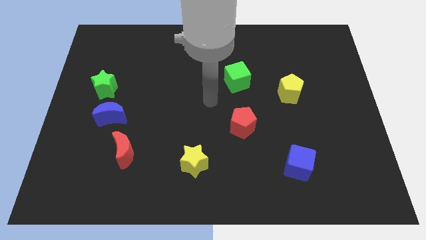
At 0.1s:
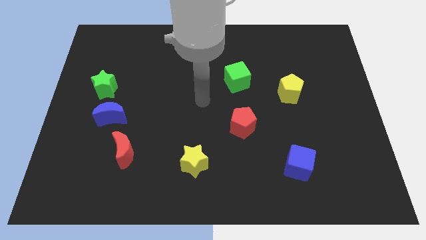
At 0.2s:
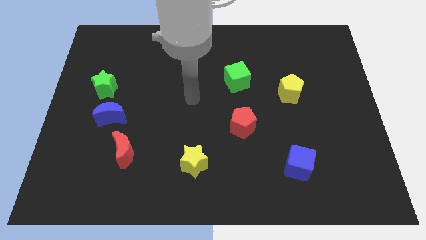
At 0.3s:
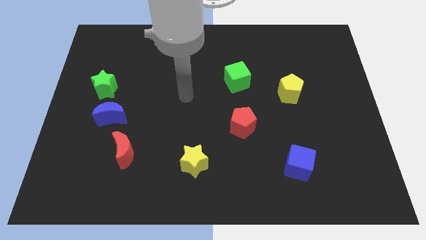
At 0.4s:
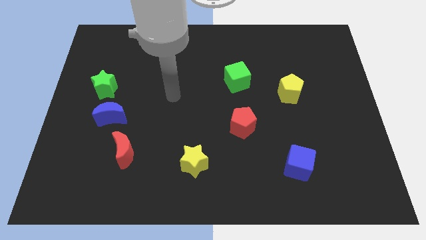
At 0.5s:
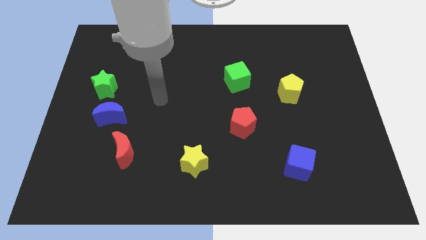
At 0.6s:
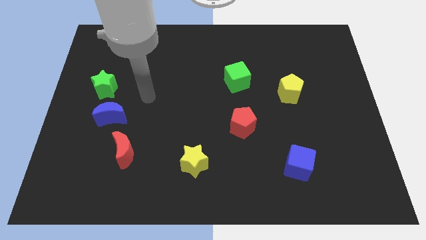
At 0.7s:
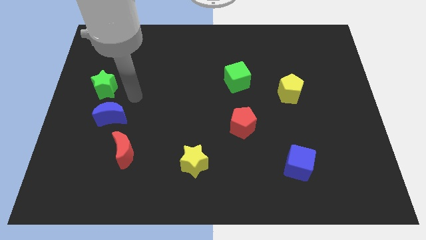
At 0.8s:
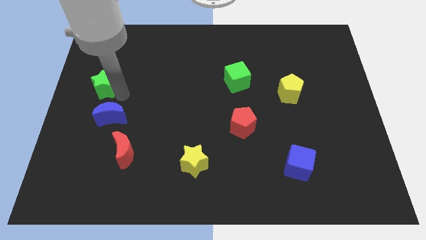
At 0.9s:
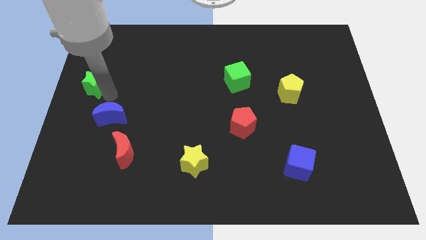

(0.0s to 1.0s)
move the blue moon away from the green star

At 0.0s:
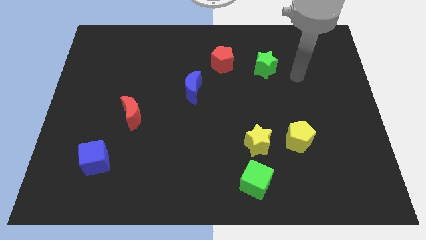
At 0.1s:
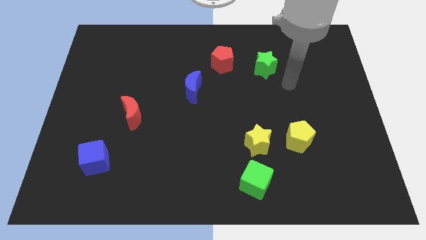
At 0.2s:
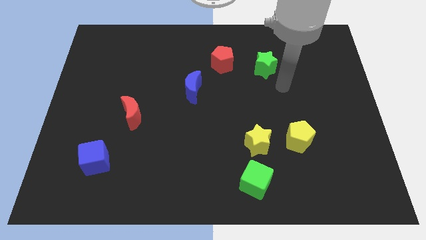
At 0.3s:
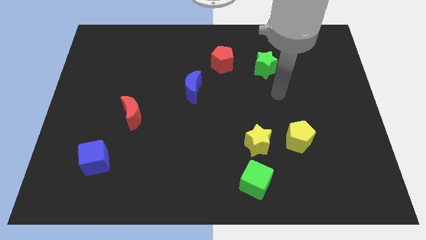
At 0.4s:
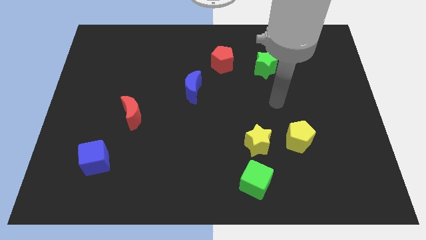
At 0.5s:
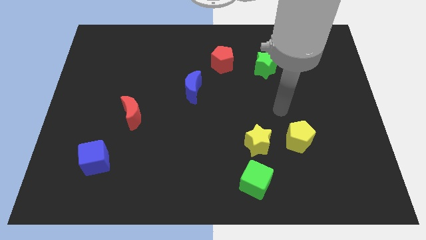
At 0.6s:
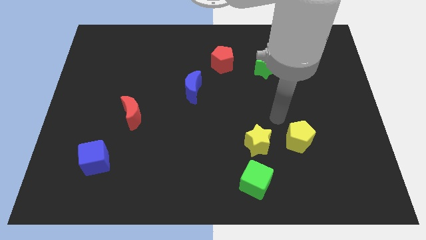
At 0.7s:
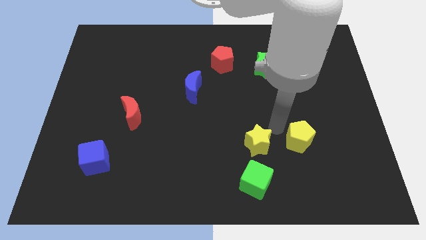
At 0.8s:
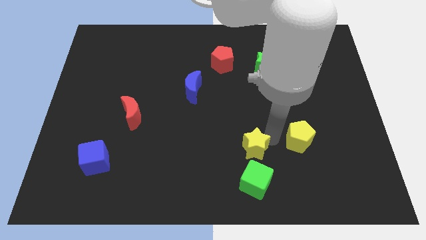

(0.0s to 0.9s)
pull the yellow pentagon apart from the yellow star

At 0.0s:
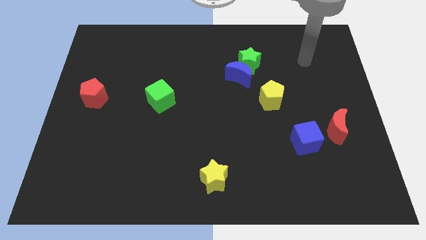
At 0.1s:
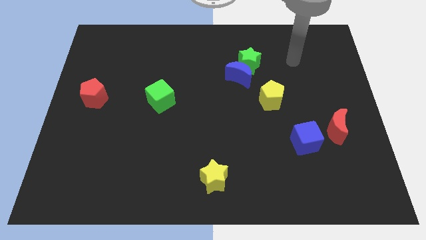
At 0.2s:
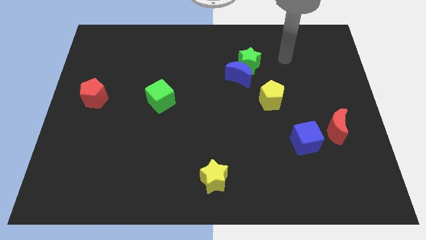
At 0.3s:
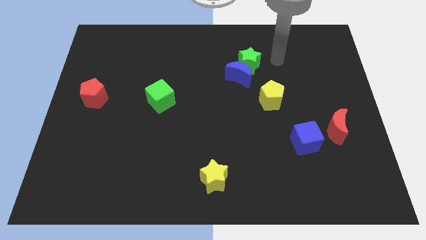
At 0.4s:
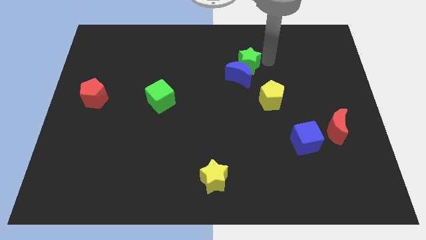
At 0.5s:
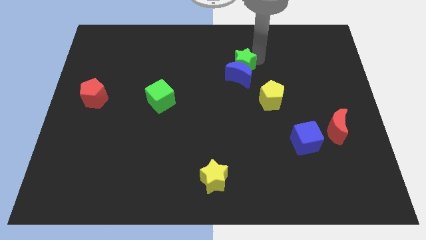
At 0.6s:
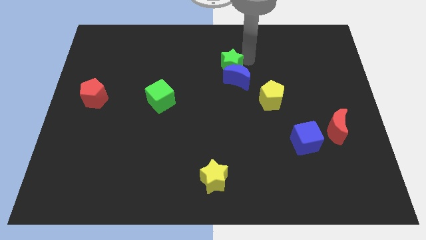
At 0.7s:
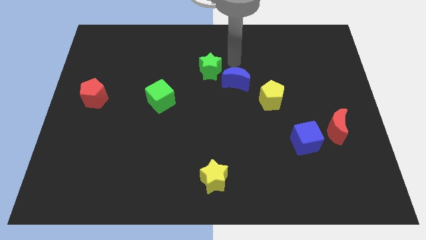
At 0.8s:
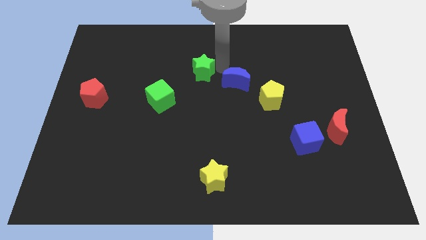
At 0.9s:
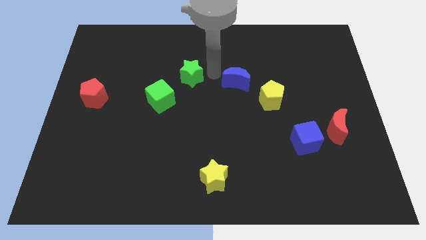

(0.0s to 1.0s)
pull the blue moon apart from the green star

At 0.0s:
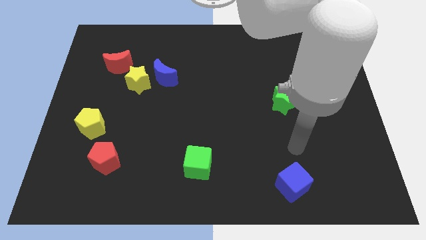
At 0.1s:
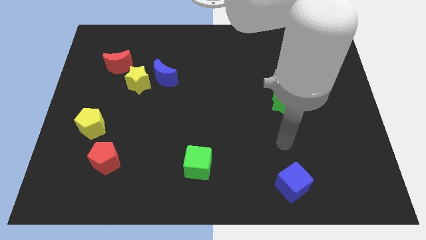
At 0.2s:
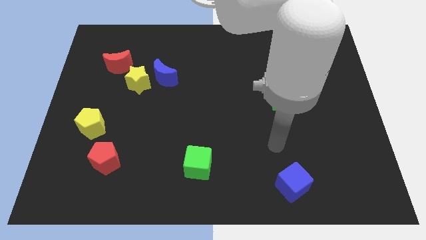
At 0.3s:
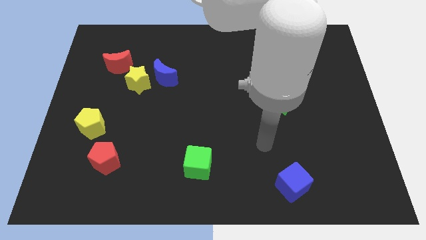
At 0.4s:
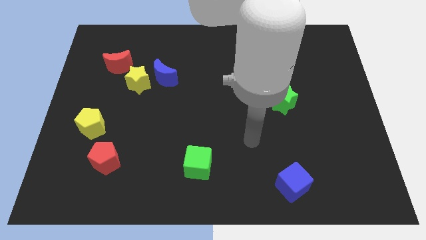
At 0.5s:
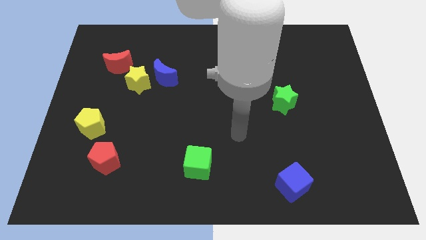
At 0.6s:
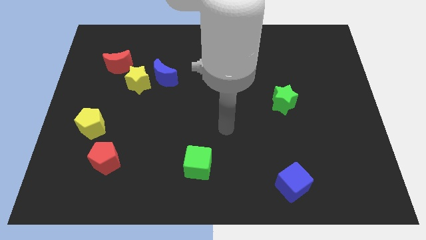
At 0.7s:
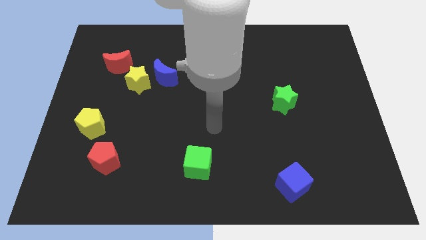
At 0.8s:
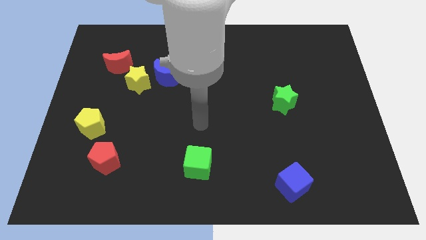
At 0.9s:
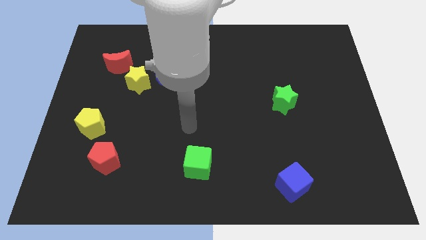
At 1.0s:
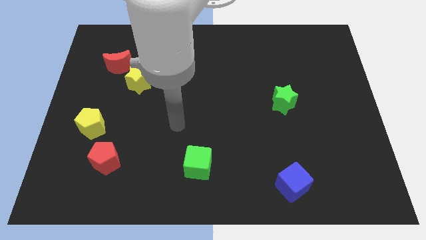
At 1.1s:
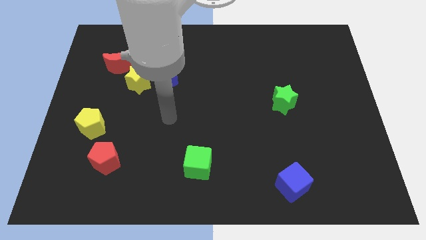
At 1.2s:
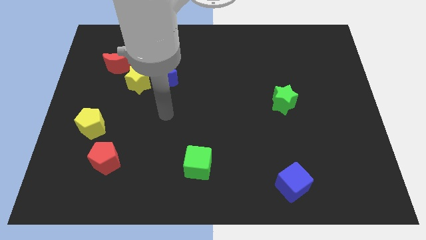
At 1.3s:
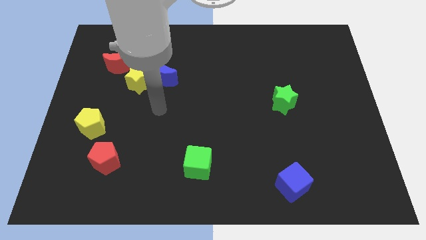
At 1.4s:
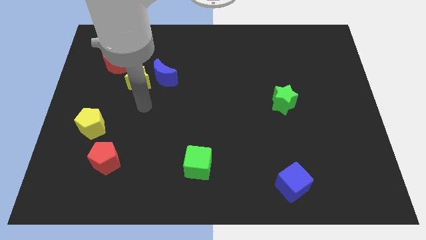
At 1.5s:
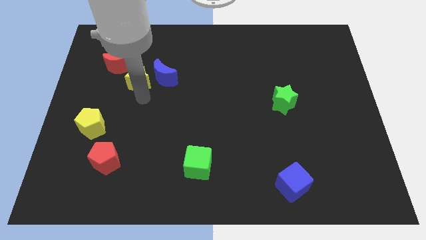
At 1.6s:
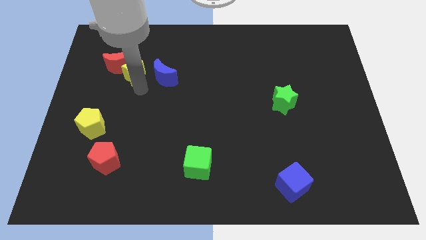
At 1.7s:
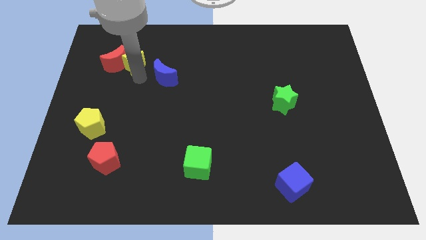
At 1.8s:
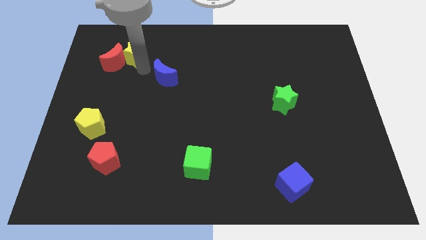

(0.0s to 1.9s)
move the blue moon away from the yellow star

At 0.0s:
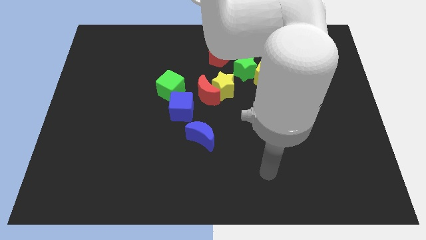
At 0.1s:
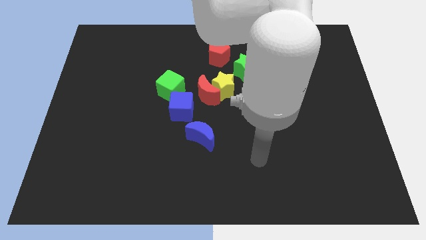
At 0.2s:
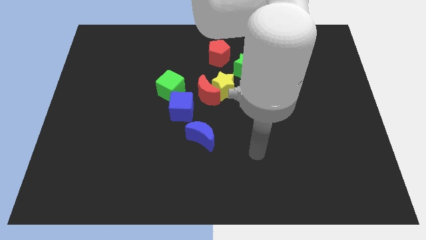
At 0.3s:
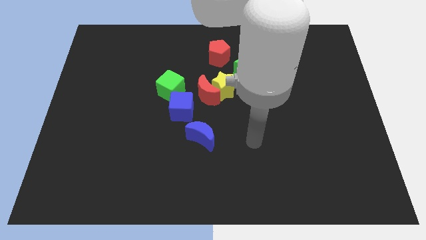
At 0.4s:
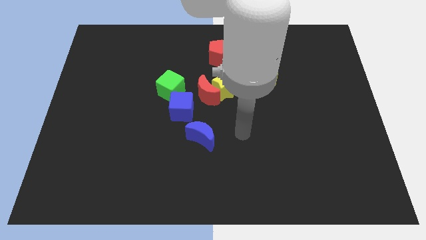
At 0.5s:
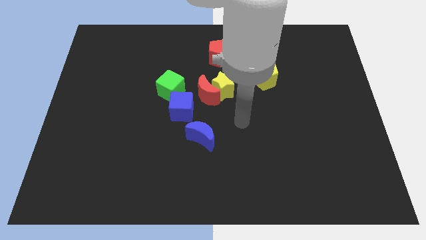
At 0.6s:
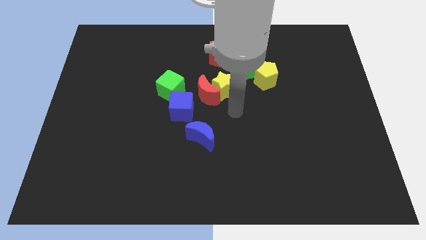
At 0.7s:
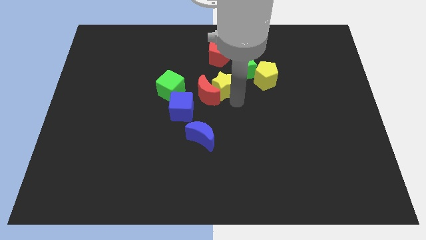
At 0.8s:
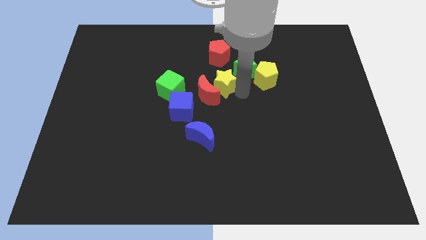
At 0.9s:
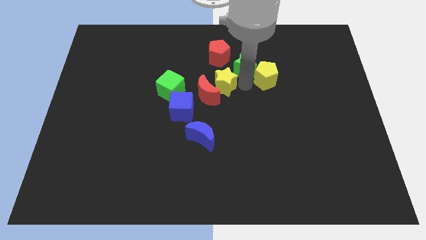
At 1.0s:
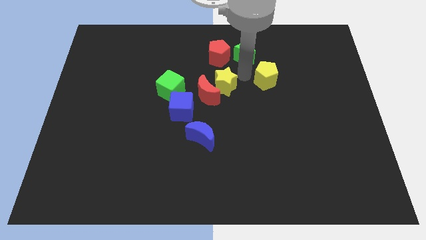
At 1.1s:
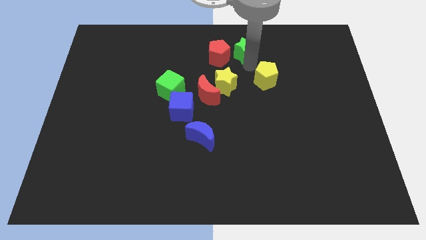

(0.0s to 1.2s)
move the yellow pentagon away from the green star

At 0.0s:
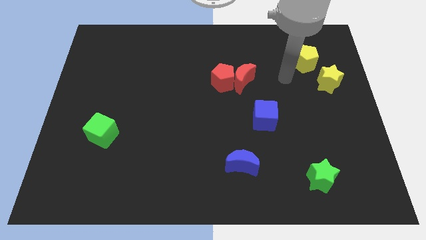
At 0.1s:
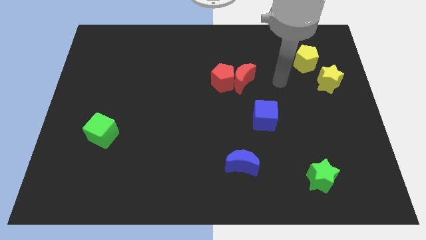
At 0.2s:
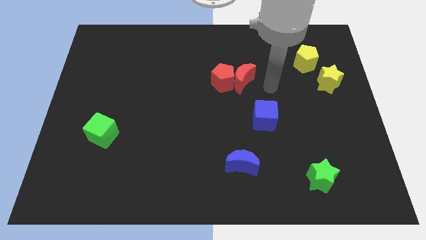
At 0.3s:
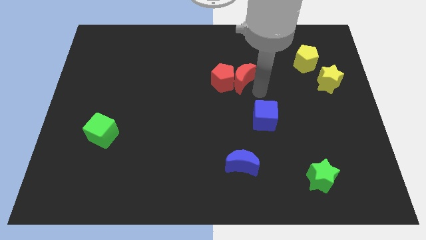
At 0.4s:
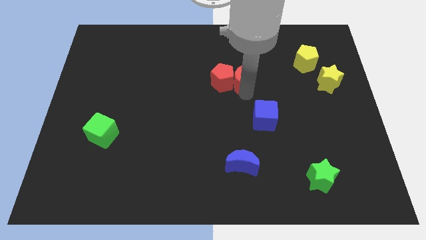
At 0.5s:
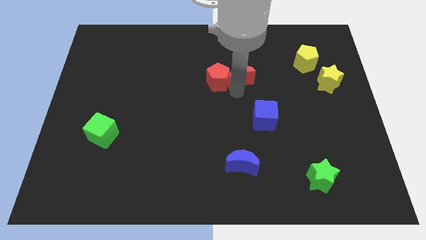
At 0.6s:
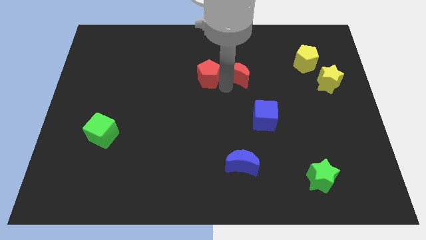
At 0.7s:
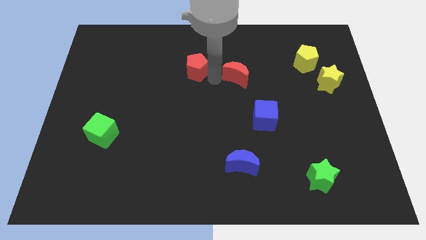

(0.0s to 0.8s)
pull the red moon apart from the red pentagon

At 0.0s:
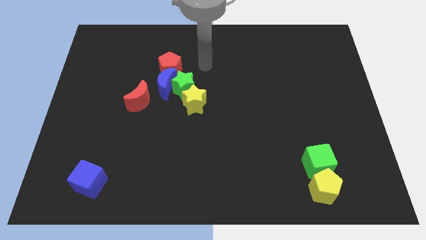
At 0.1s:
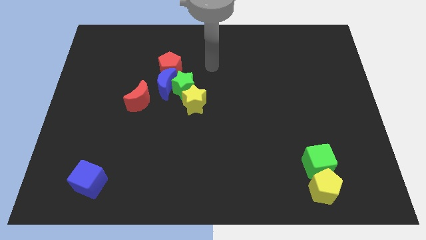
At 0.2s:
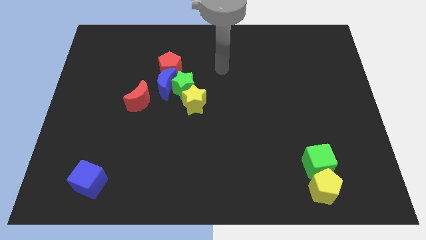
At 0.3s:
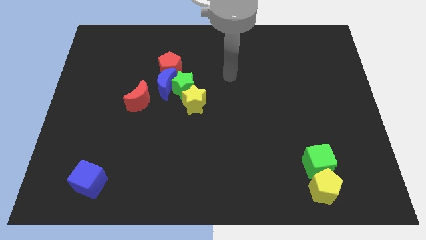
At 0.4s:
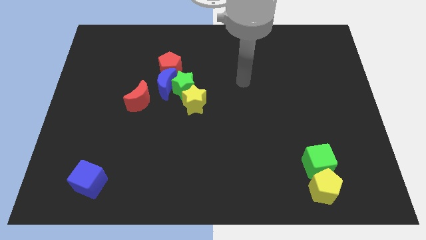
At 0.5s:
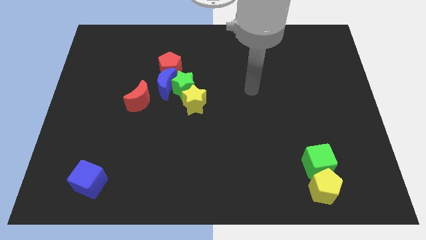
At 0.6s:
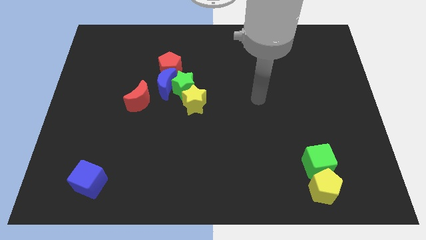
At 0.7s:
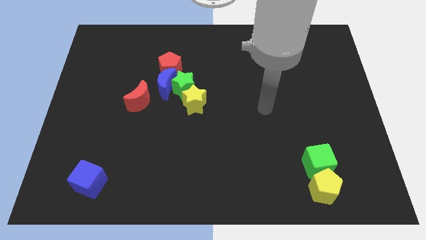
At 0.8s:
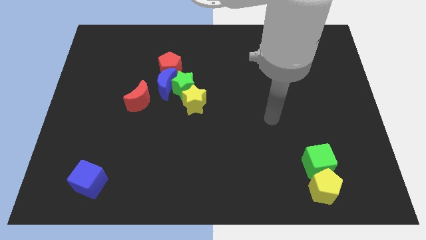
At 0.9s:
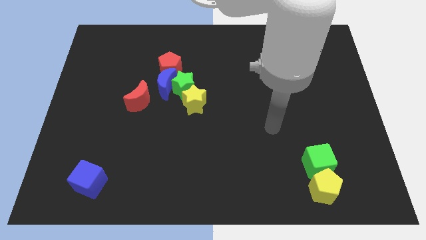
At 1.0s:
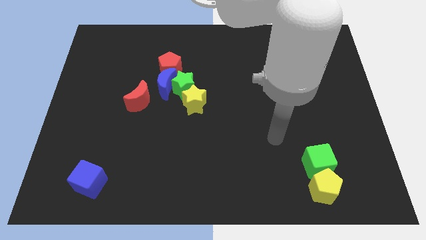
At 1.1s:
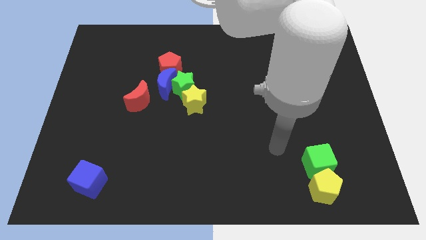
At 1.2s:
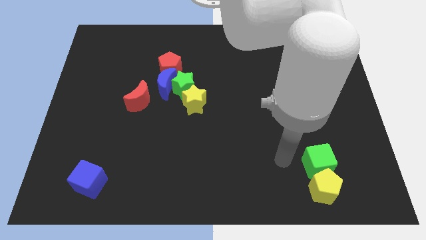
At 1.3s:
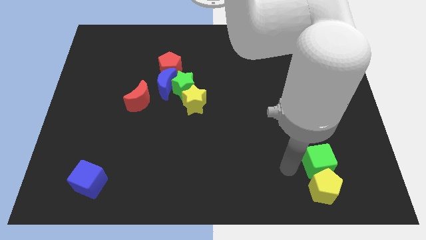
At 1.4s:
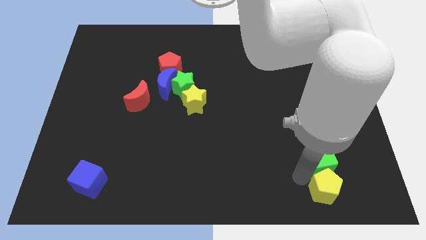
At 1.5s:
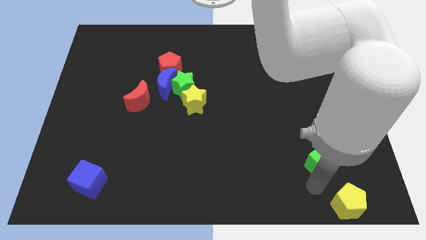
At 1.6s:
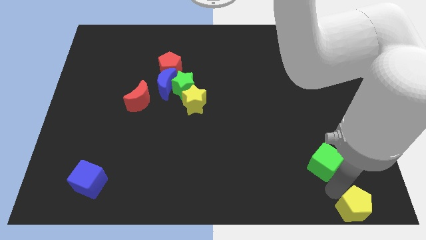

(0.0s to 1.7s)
move the green cube away from the yellow pentagon

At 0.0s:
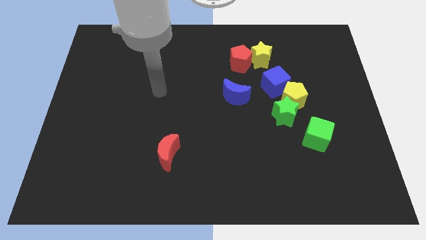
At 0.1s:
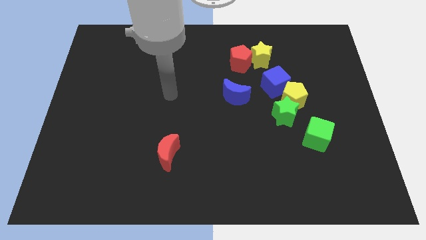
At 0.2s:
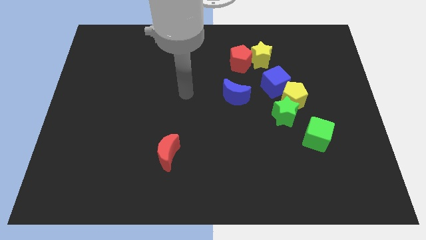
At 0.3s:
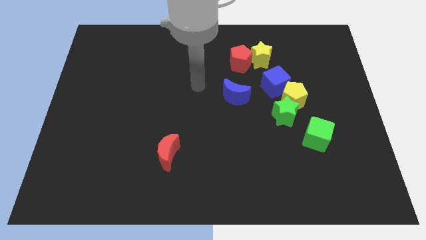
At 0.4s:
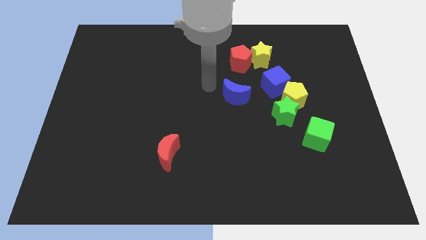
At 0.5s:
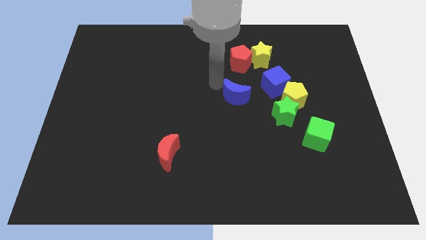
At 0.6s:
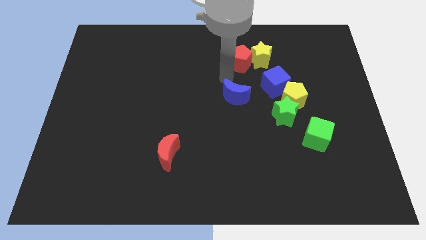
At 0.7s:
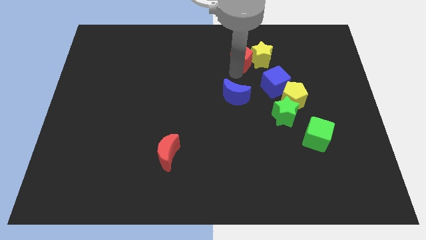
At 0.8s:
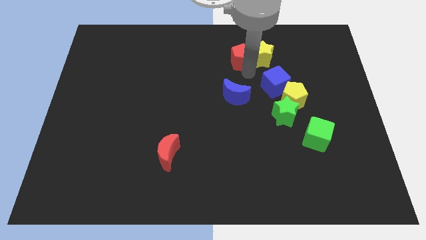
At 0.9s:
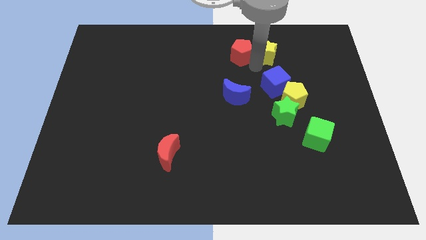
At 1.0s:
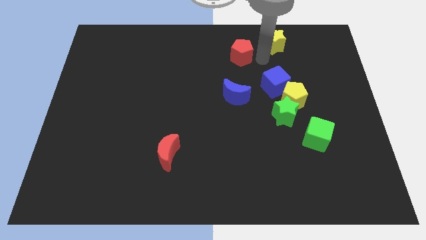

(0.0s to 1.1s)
separate the red pentagon from the yellow star
